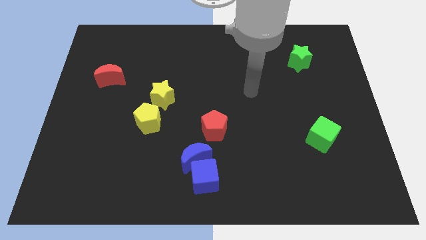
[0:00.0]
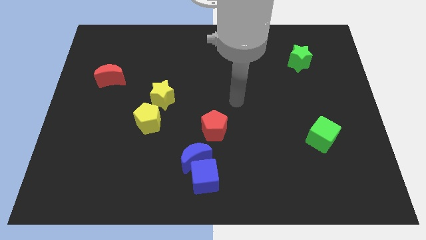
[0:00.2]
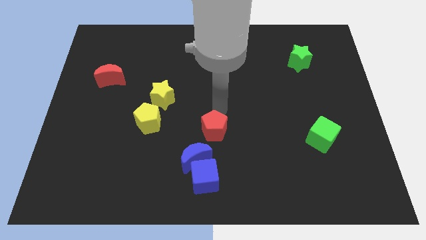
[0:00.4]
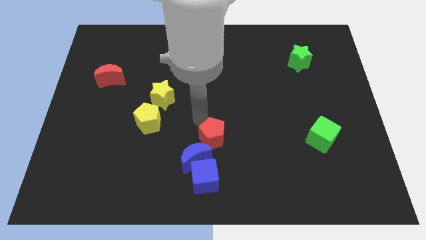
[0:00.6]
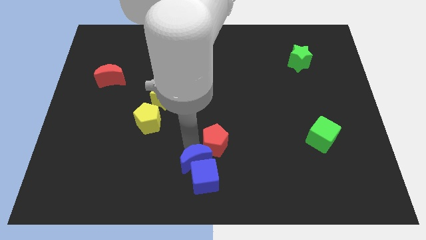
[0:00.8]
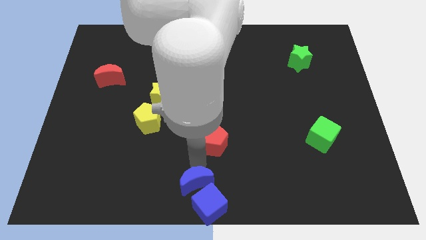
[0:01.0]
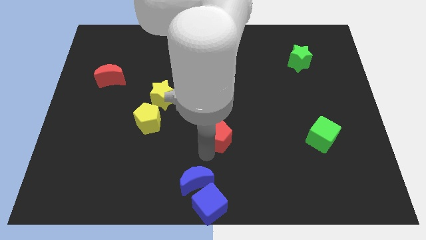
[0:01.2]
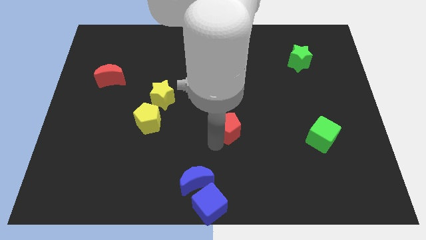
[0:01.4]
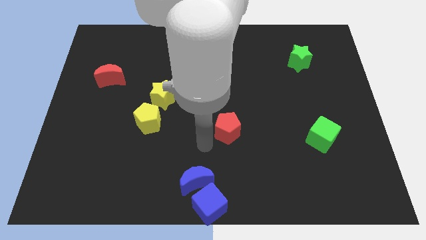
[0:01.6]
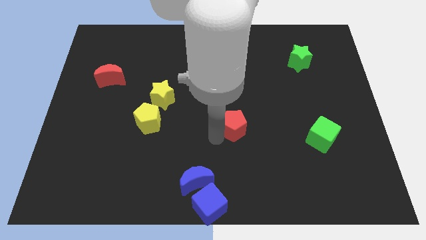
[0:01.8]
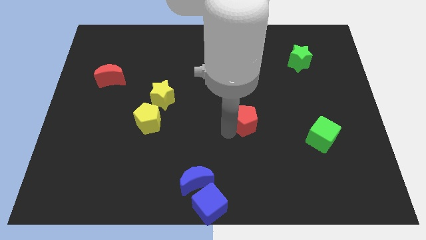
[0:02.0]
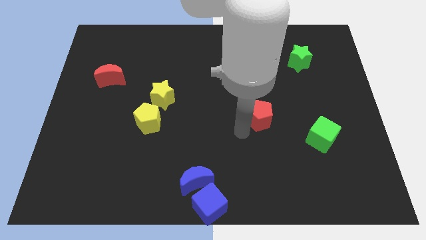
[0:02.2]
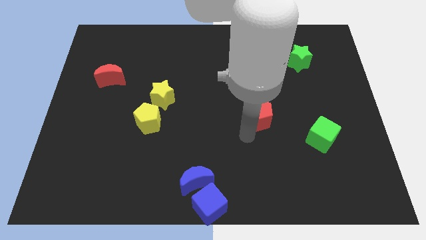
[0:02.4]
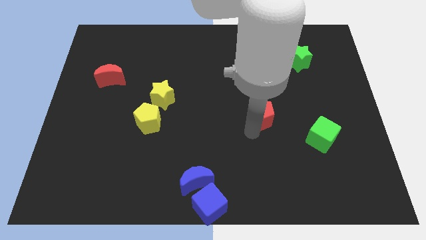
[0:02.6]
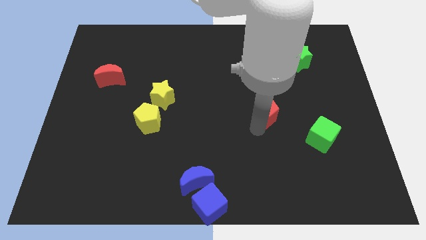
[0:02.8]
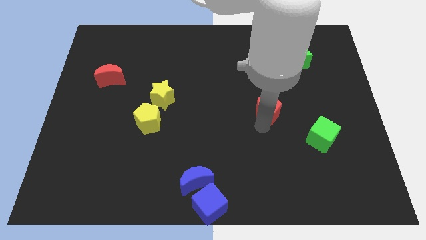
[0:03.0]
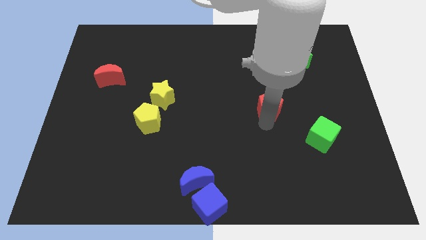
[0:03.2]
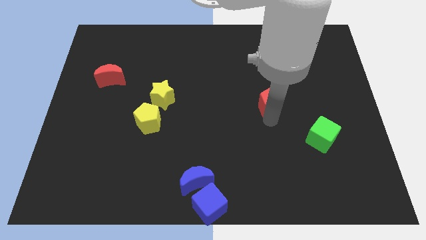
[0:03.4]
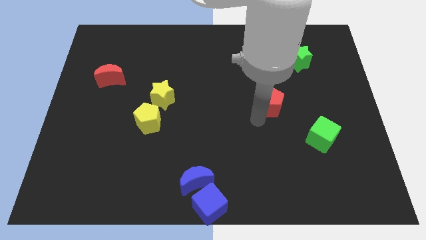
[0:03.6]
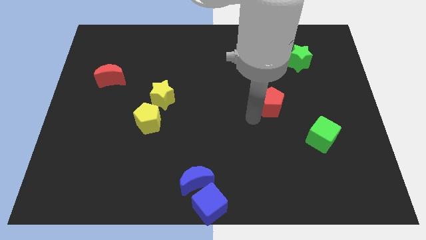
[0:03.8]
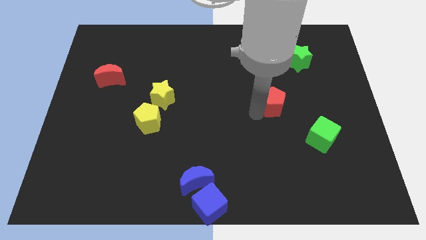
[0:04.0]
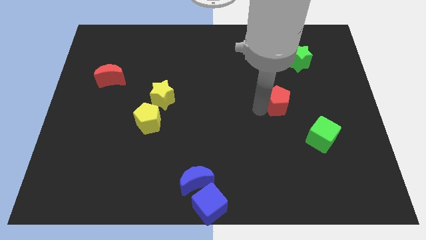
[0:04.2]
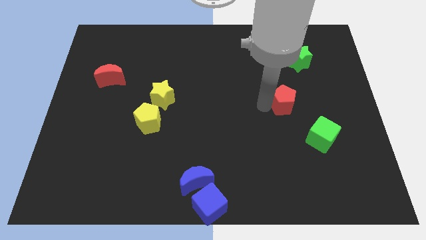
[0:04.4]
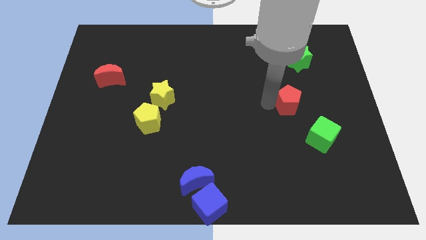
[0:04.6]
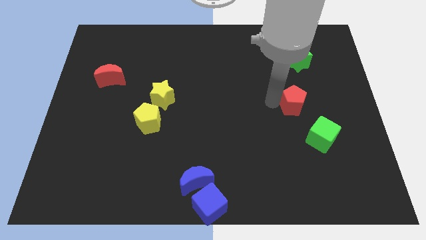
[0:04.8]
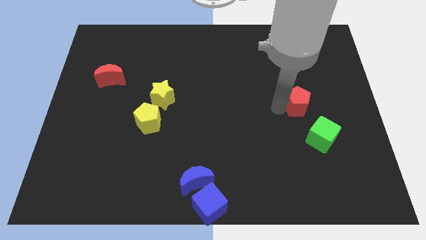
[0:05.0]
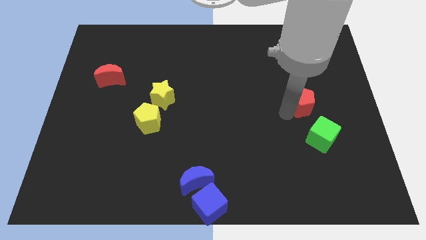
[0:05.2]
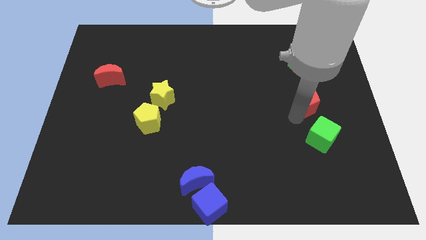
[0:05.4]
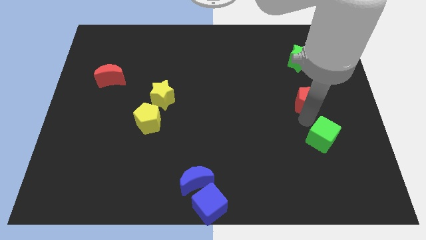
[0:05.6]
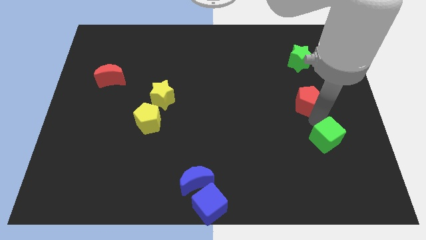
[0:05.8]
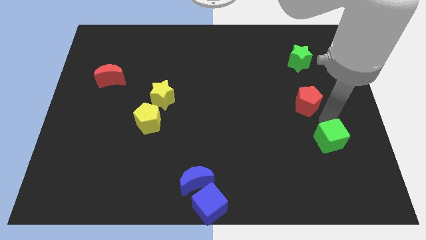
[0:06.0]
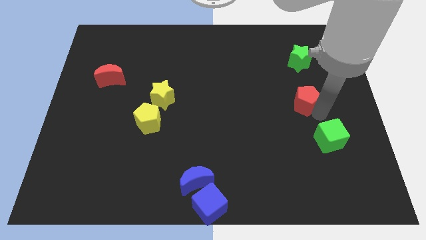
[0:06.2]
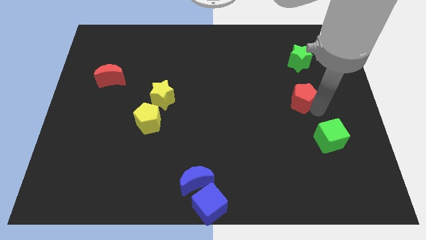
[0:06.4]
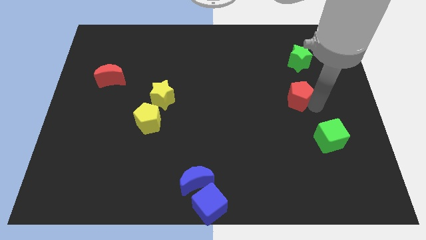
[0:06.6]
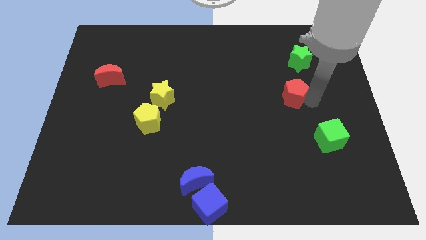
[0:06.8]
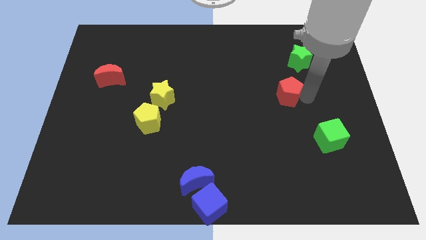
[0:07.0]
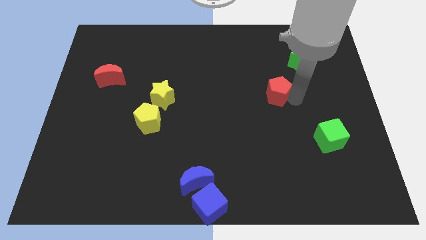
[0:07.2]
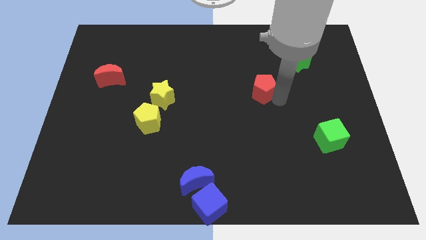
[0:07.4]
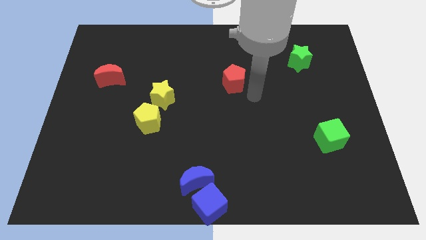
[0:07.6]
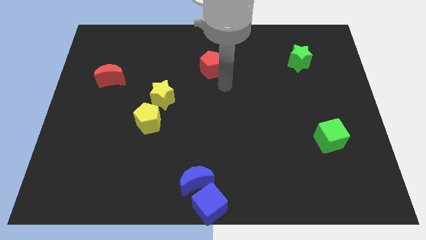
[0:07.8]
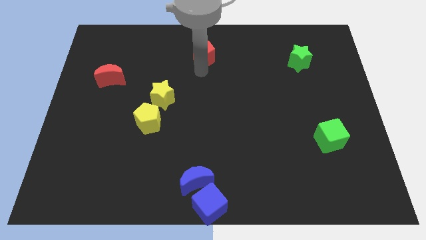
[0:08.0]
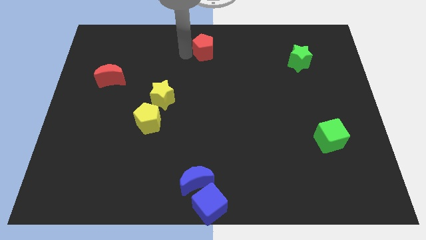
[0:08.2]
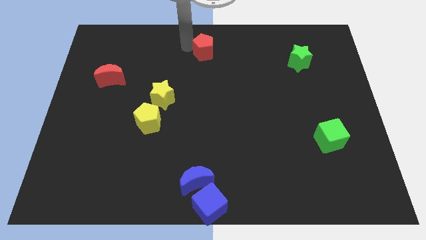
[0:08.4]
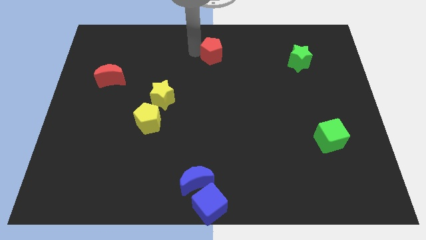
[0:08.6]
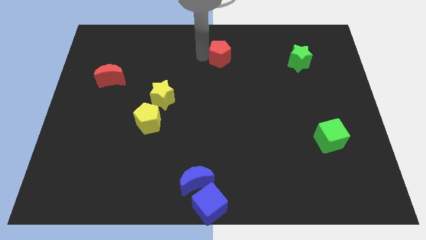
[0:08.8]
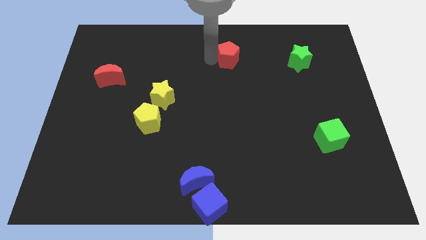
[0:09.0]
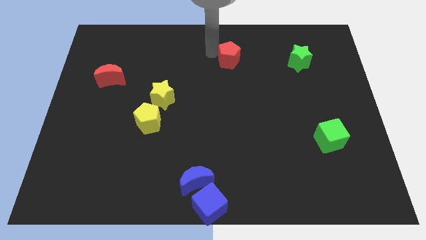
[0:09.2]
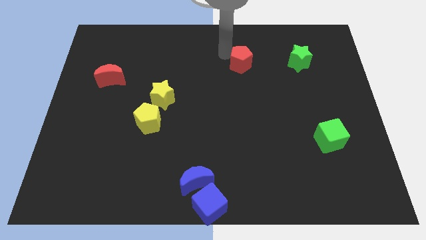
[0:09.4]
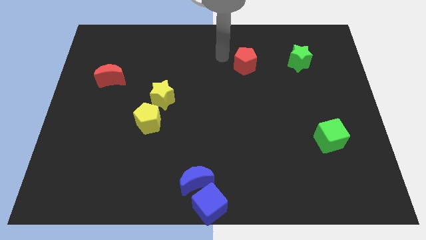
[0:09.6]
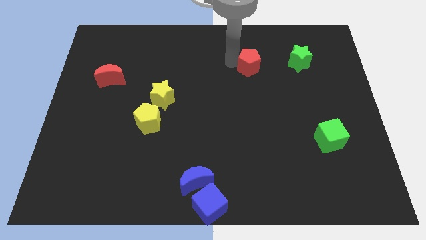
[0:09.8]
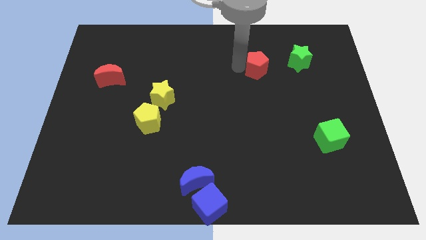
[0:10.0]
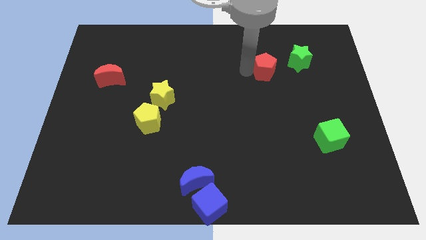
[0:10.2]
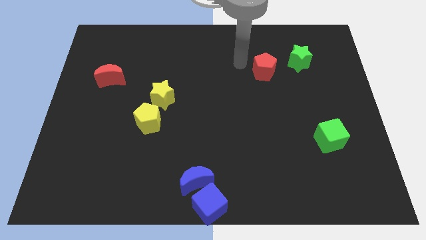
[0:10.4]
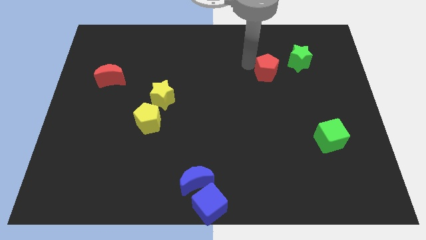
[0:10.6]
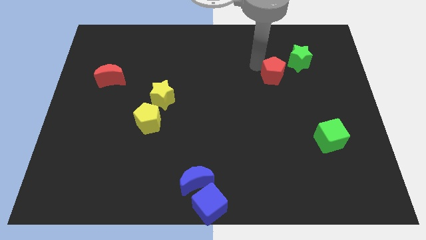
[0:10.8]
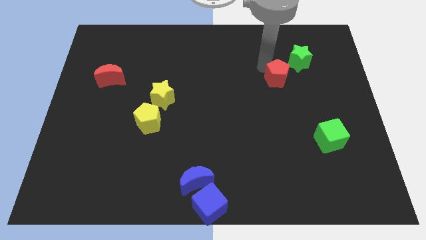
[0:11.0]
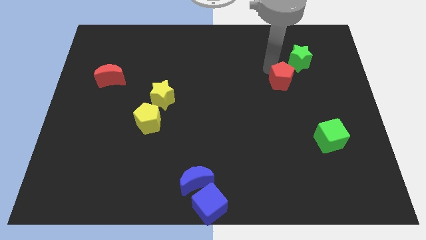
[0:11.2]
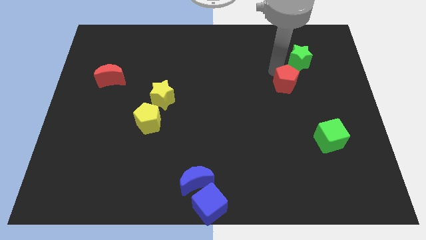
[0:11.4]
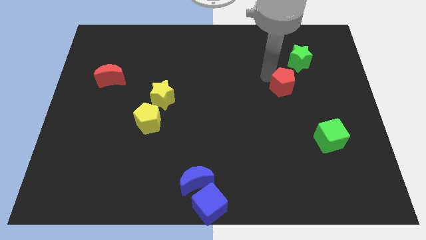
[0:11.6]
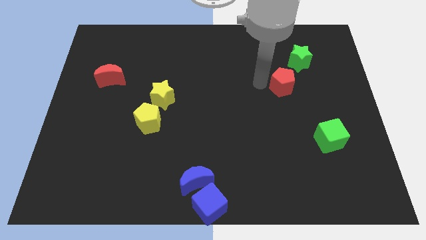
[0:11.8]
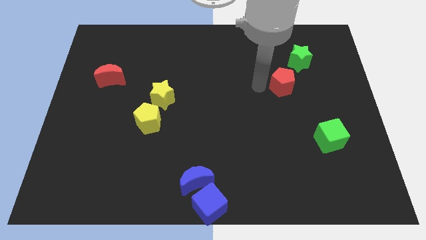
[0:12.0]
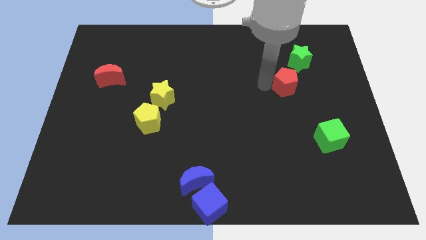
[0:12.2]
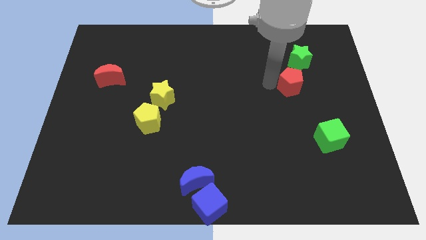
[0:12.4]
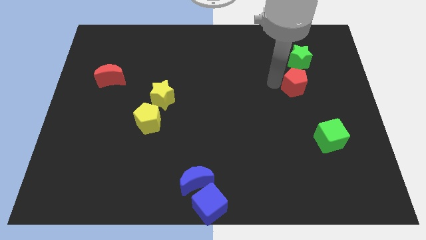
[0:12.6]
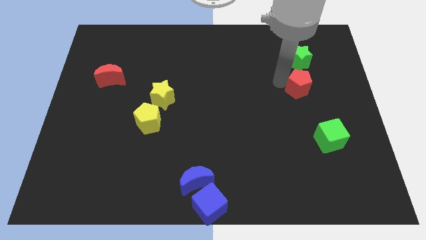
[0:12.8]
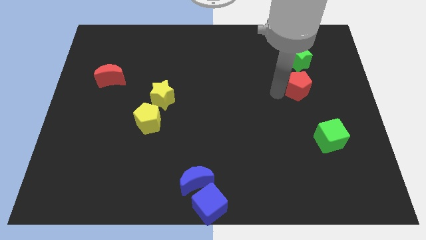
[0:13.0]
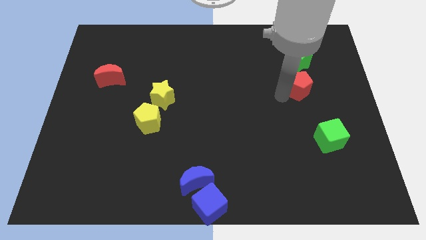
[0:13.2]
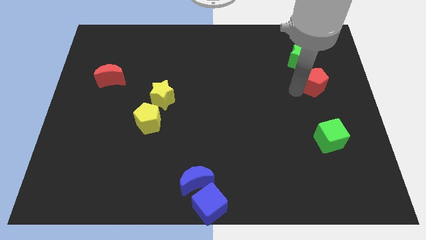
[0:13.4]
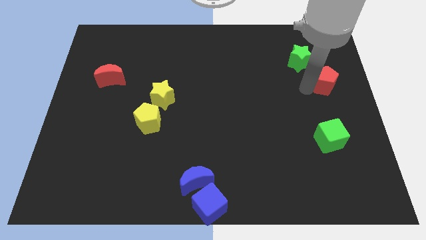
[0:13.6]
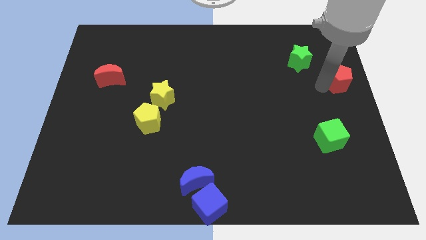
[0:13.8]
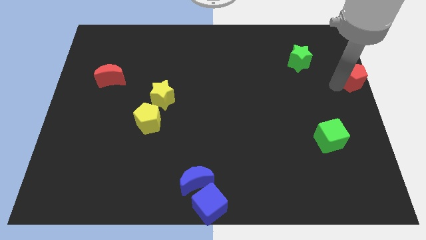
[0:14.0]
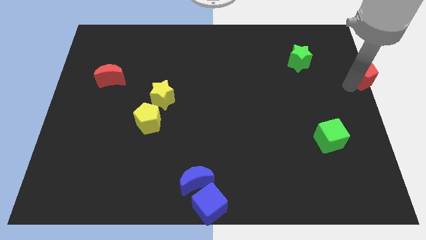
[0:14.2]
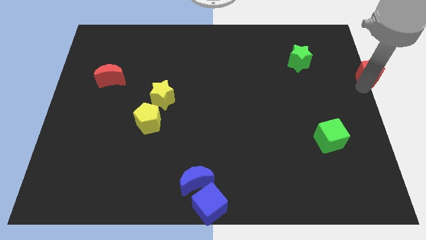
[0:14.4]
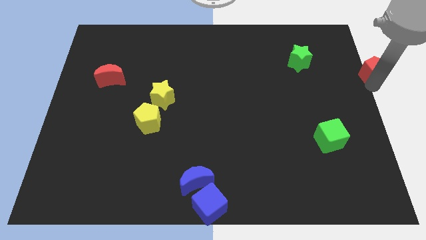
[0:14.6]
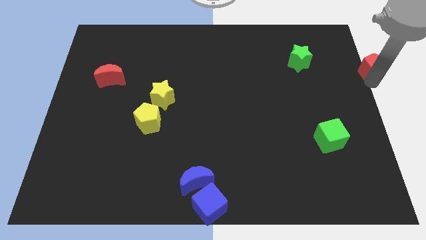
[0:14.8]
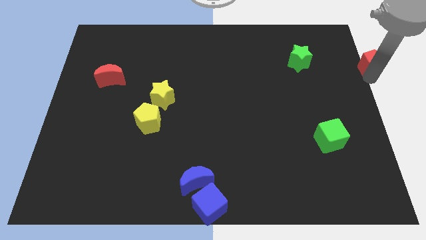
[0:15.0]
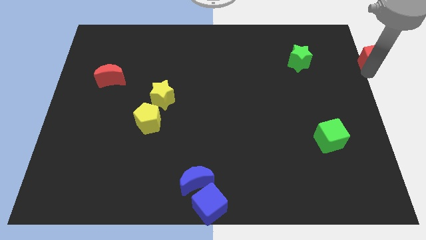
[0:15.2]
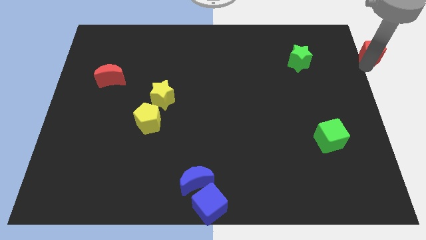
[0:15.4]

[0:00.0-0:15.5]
move the red pentagon to the upper right corner
